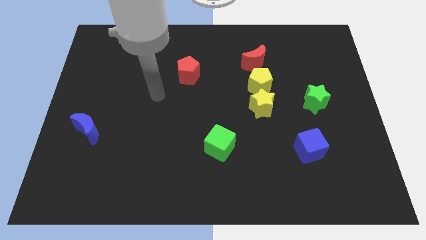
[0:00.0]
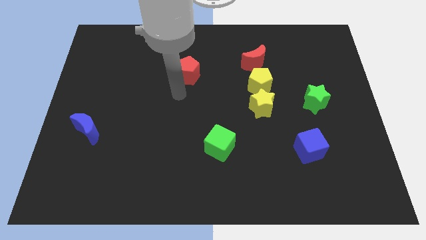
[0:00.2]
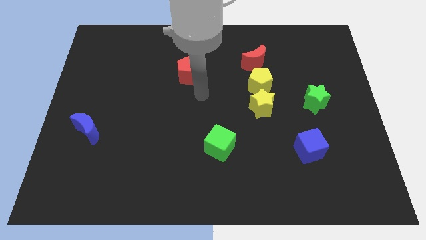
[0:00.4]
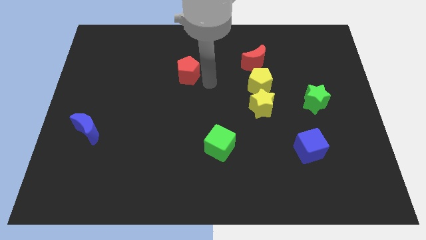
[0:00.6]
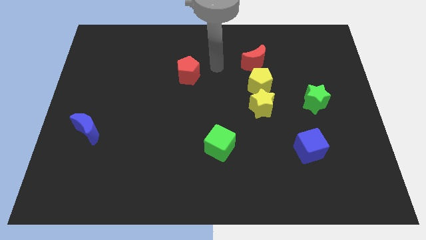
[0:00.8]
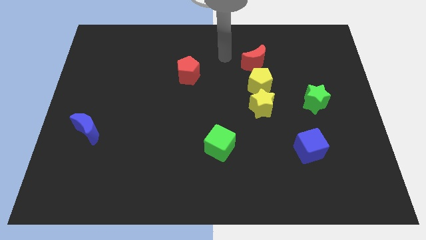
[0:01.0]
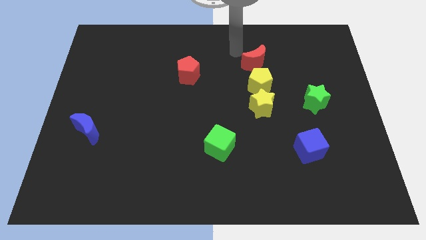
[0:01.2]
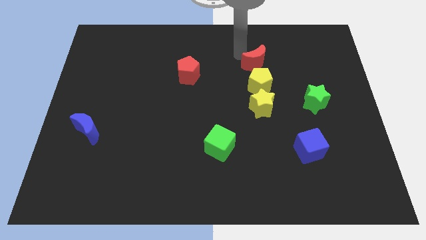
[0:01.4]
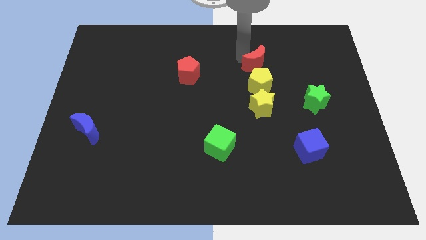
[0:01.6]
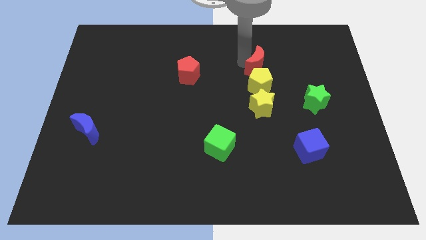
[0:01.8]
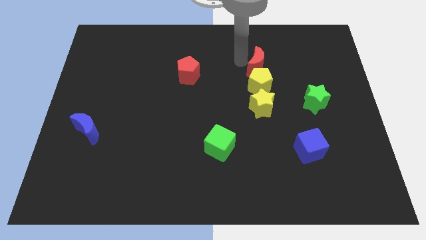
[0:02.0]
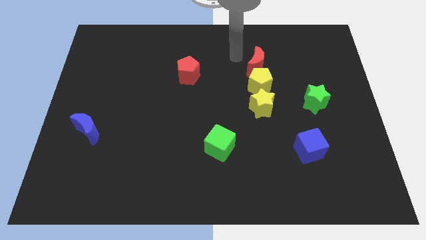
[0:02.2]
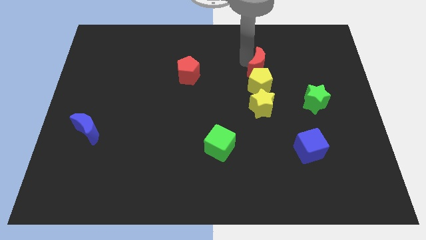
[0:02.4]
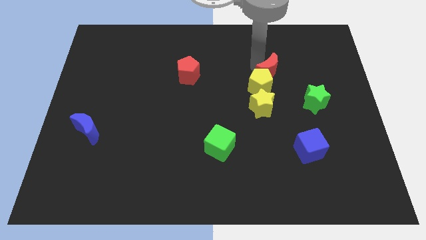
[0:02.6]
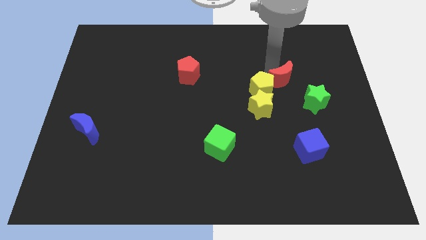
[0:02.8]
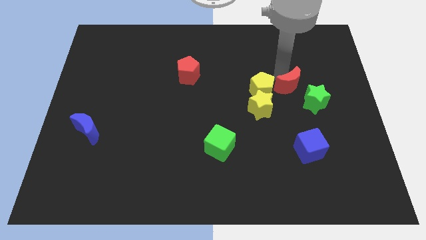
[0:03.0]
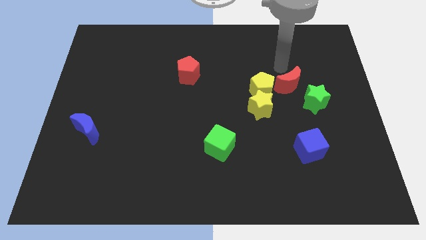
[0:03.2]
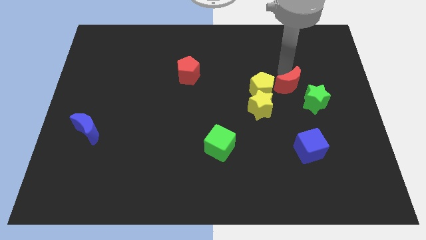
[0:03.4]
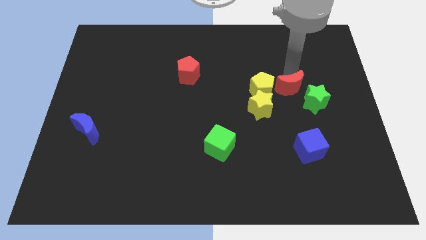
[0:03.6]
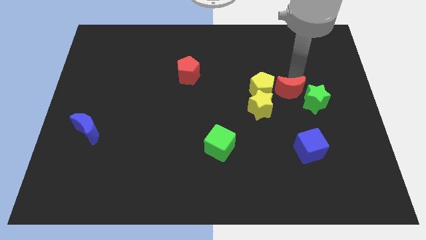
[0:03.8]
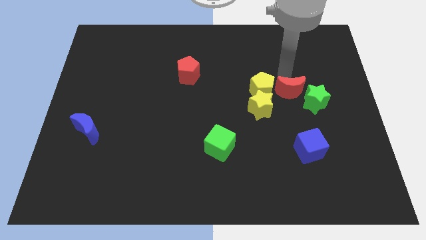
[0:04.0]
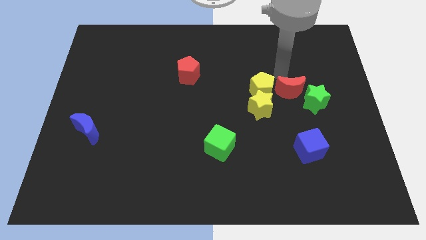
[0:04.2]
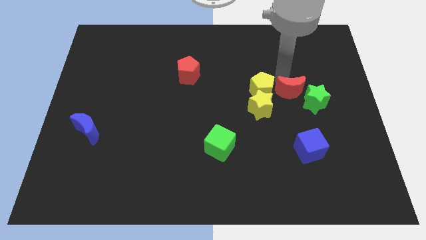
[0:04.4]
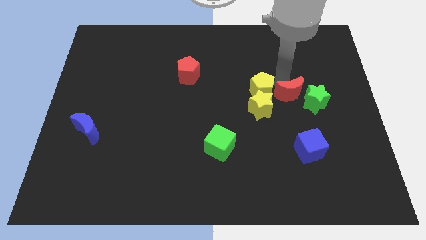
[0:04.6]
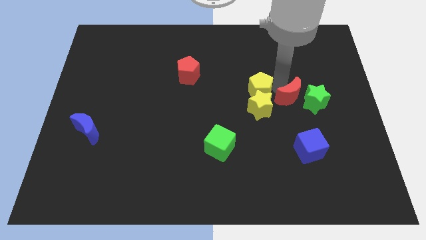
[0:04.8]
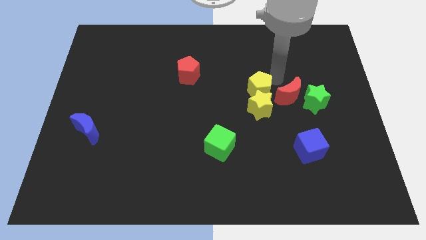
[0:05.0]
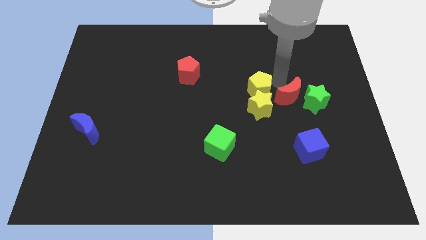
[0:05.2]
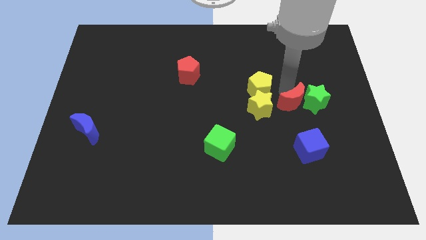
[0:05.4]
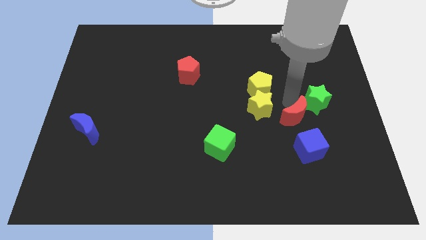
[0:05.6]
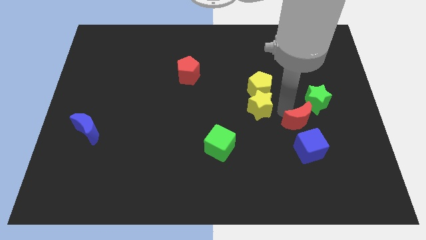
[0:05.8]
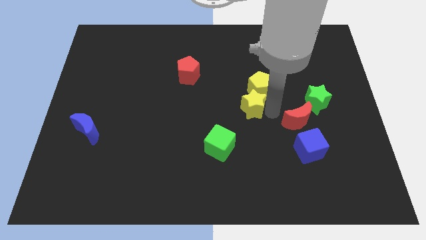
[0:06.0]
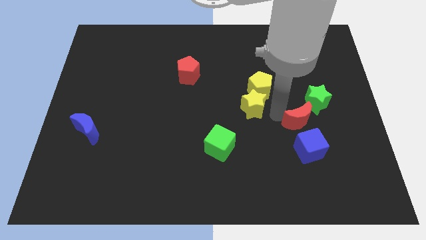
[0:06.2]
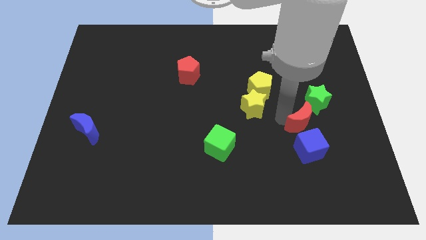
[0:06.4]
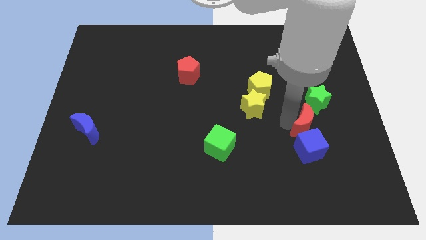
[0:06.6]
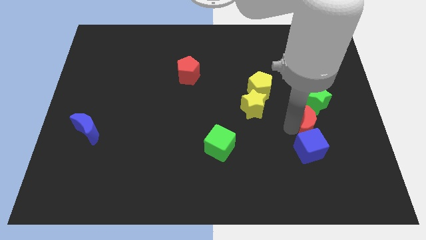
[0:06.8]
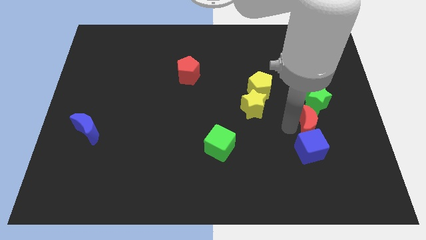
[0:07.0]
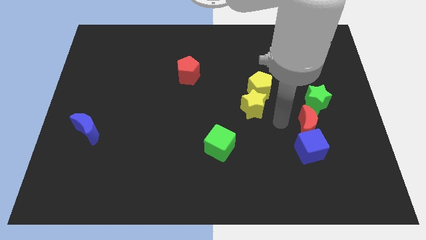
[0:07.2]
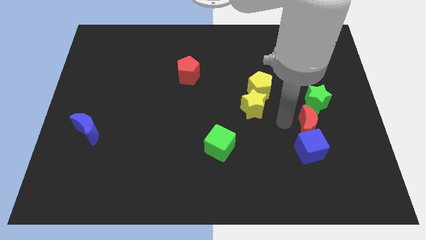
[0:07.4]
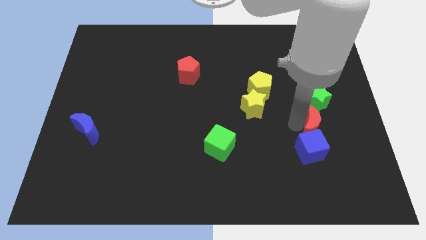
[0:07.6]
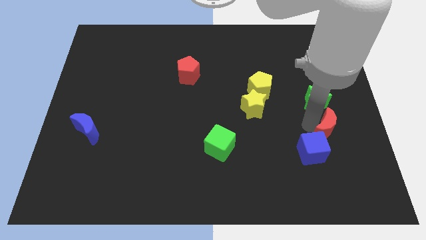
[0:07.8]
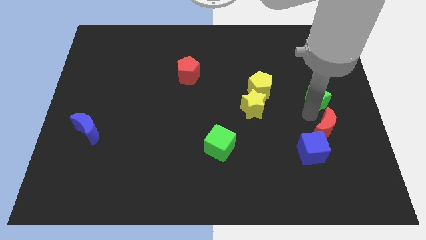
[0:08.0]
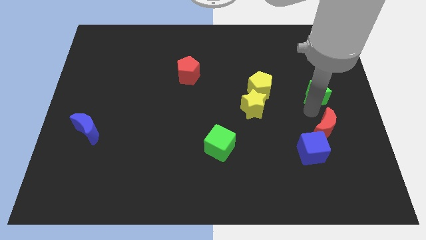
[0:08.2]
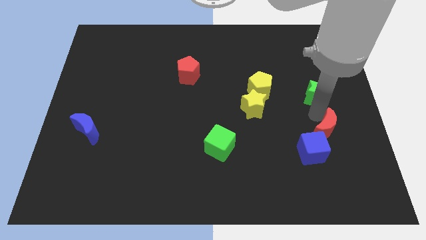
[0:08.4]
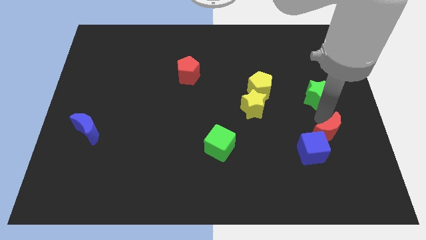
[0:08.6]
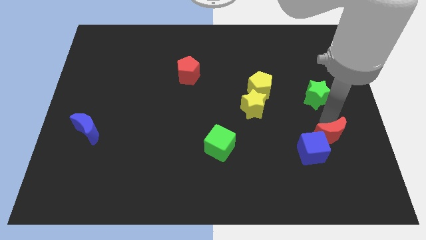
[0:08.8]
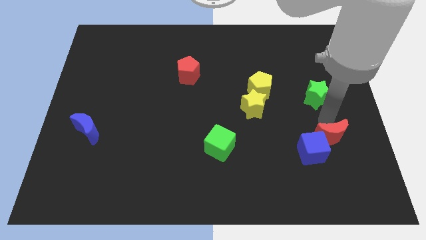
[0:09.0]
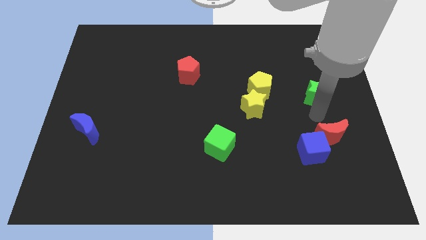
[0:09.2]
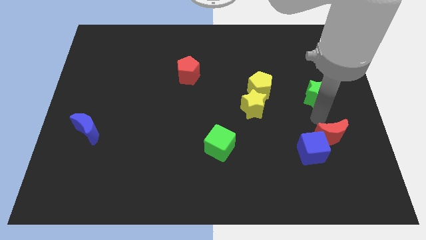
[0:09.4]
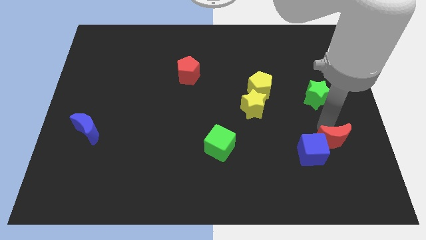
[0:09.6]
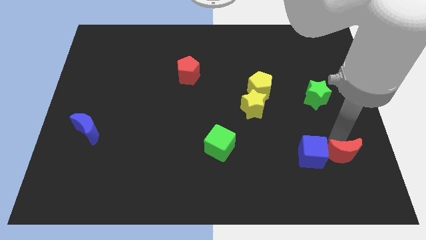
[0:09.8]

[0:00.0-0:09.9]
put the red moon diagonally down and to the right of the blue cube

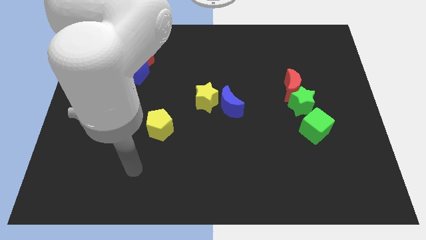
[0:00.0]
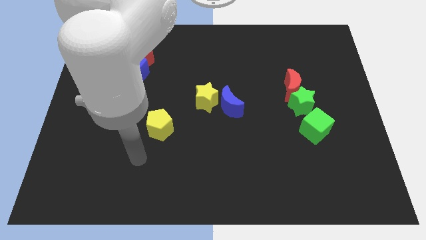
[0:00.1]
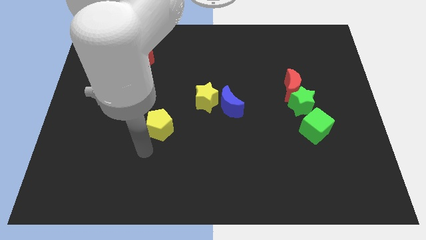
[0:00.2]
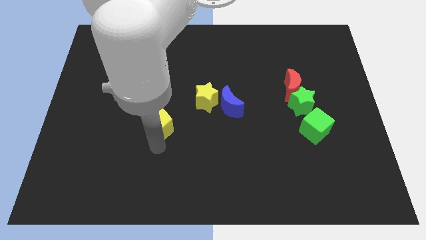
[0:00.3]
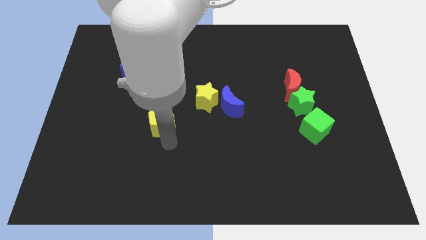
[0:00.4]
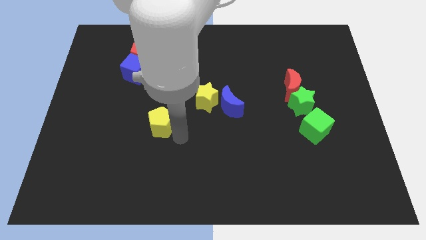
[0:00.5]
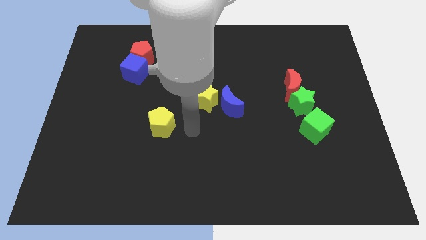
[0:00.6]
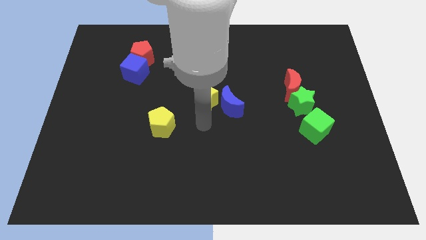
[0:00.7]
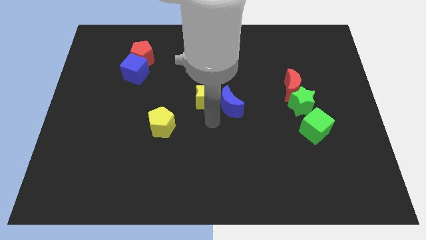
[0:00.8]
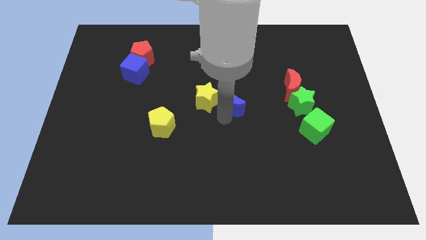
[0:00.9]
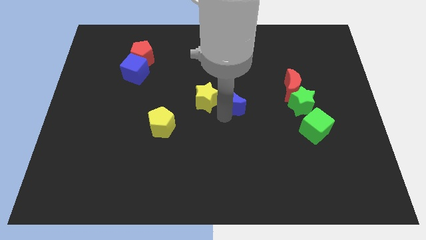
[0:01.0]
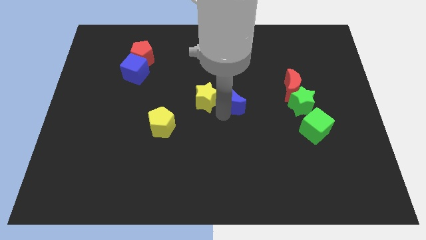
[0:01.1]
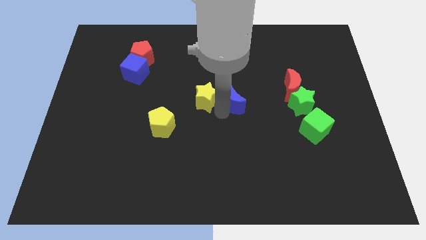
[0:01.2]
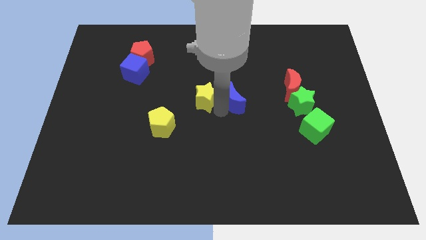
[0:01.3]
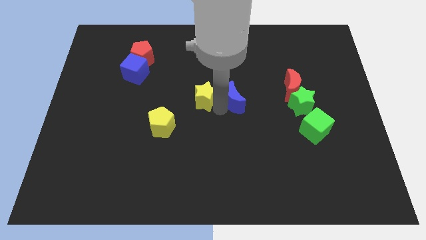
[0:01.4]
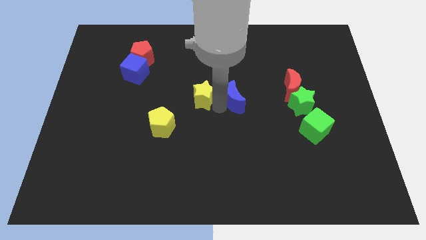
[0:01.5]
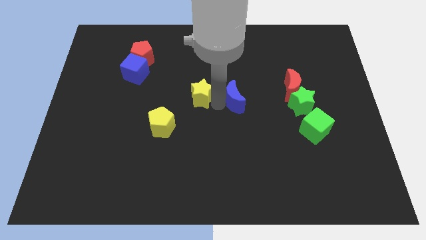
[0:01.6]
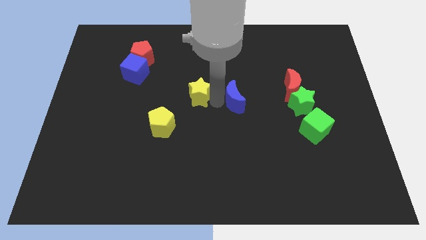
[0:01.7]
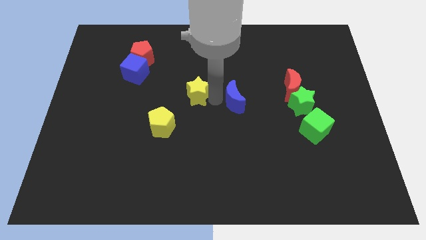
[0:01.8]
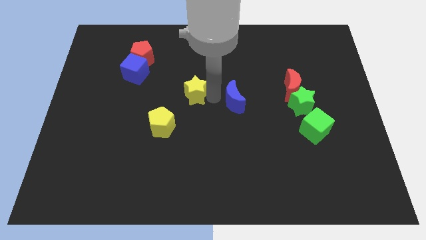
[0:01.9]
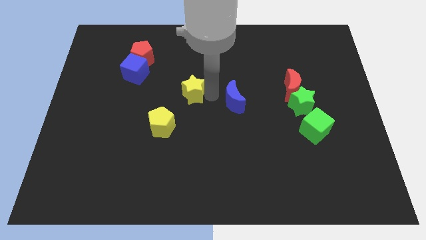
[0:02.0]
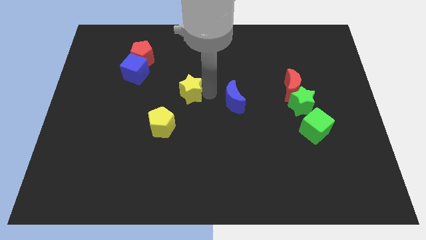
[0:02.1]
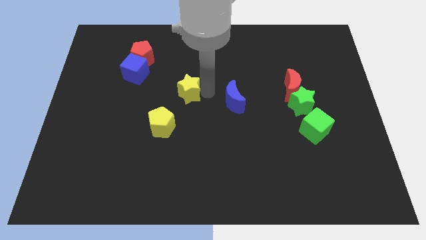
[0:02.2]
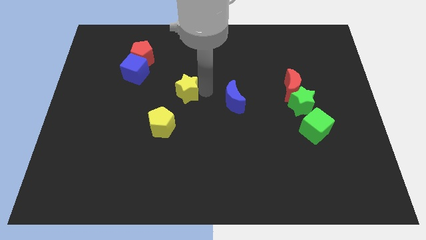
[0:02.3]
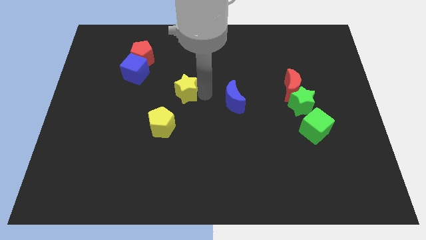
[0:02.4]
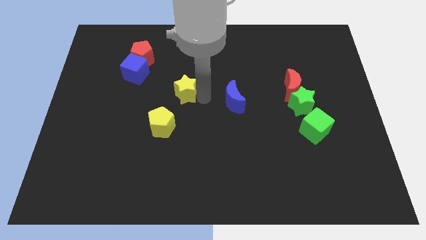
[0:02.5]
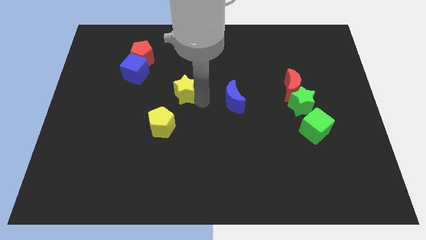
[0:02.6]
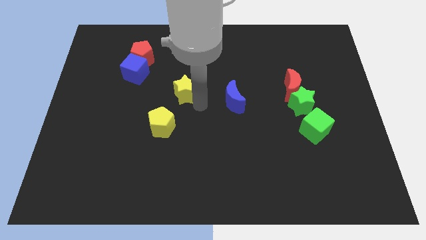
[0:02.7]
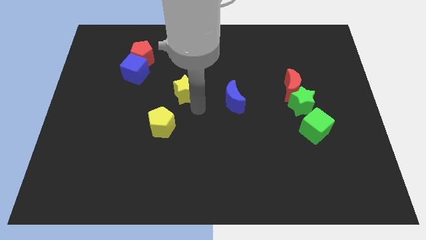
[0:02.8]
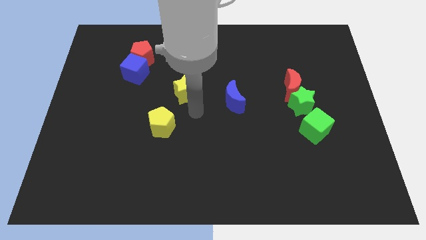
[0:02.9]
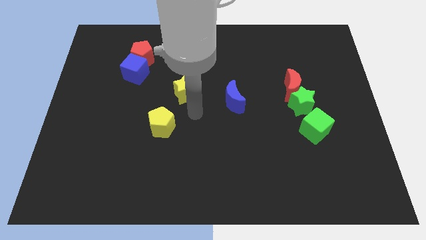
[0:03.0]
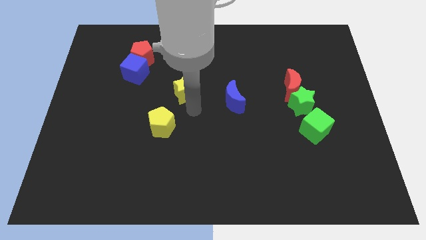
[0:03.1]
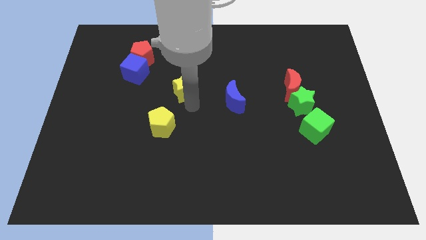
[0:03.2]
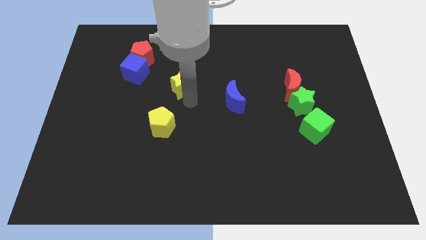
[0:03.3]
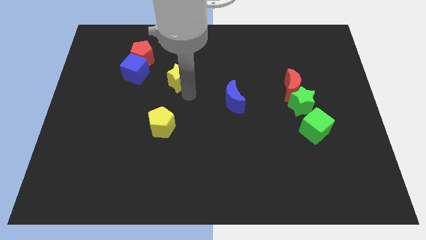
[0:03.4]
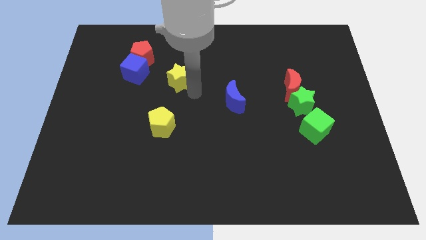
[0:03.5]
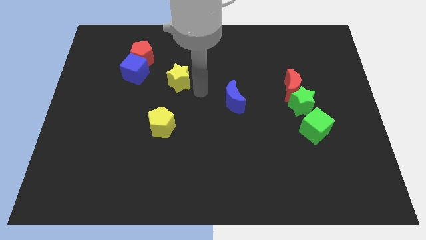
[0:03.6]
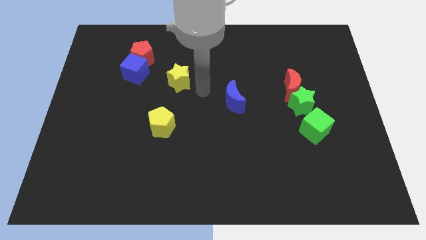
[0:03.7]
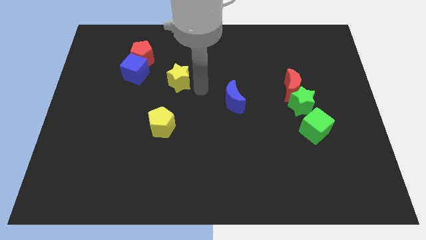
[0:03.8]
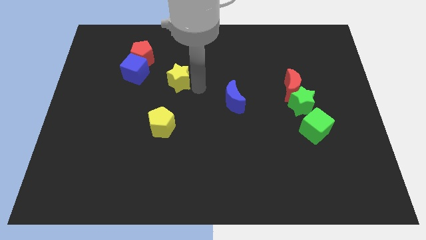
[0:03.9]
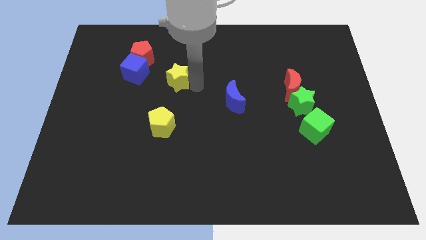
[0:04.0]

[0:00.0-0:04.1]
slide the yellow star to the bottom right of the red pentagon
